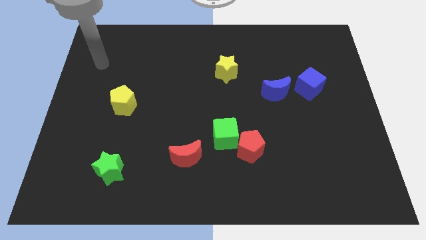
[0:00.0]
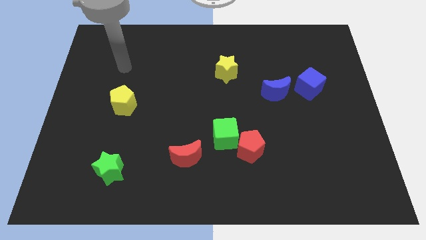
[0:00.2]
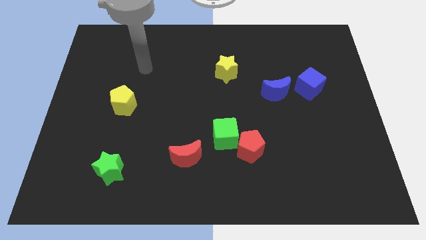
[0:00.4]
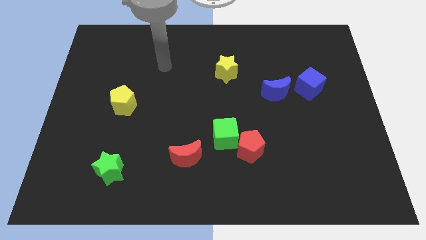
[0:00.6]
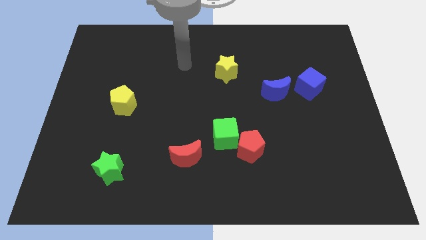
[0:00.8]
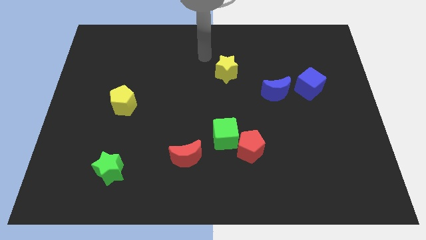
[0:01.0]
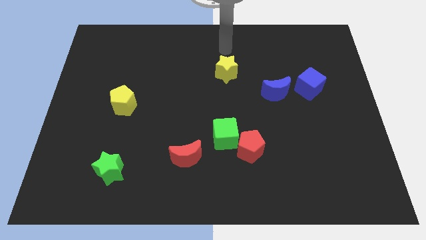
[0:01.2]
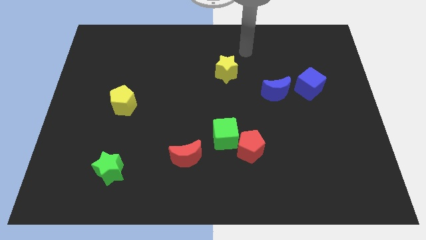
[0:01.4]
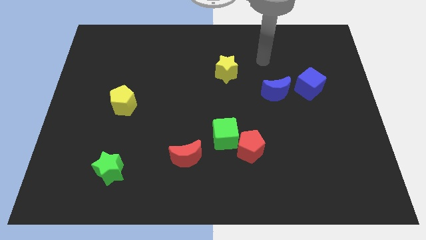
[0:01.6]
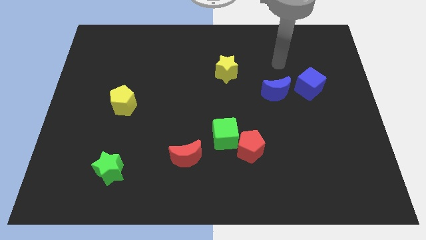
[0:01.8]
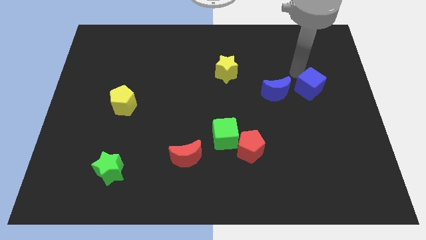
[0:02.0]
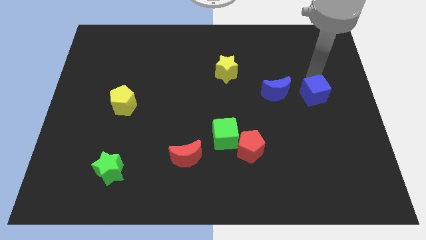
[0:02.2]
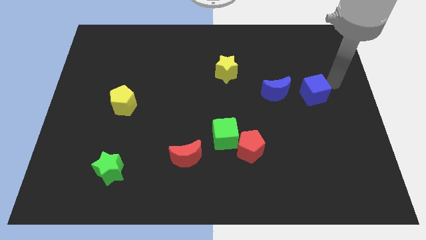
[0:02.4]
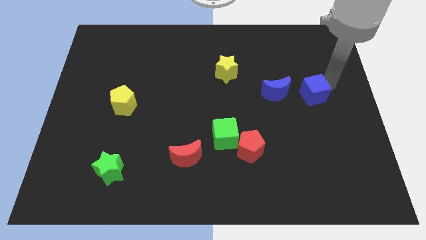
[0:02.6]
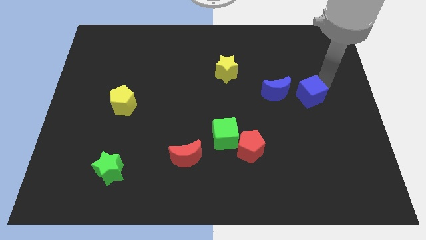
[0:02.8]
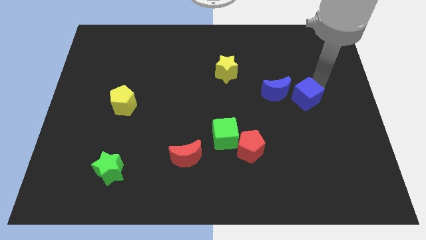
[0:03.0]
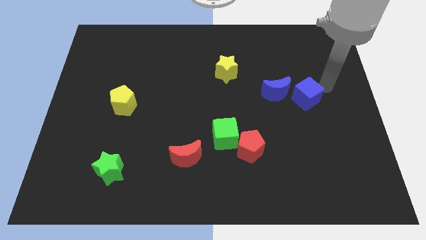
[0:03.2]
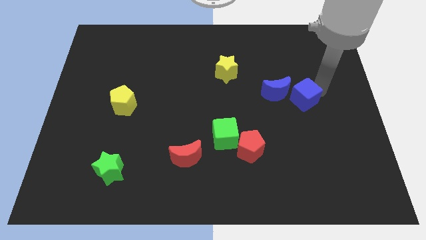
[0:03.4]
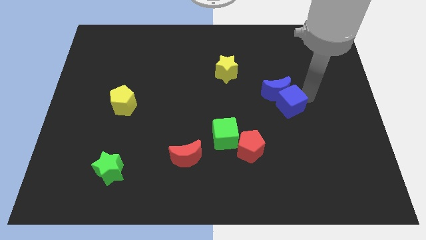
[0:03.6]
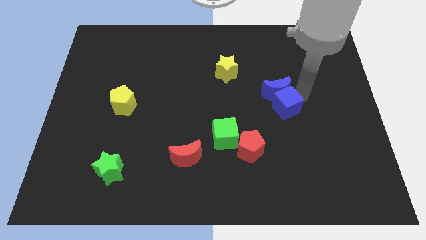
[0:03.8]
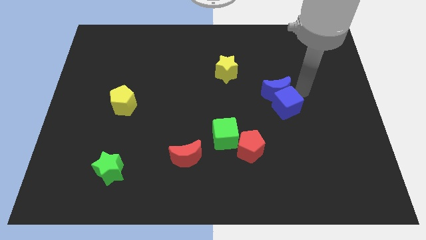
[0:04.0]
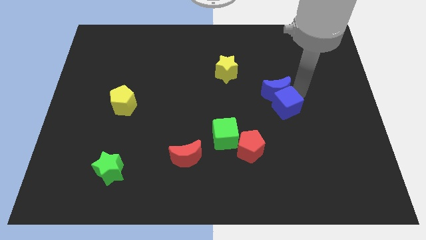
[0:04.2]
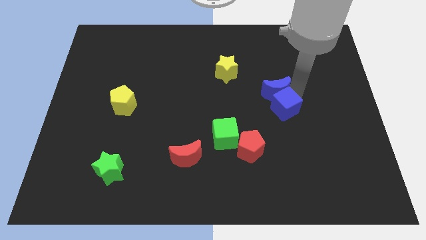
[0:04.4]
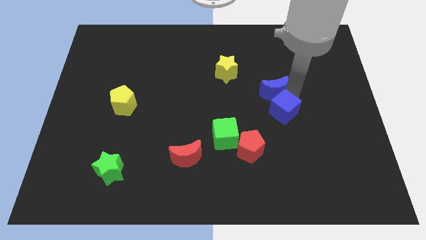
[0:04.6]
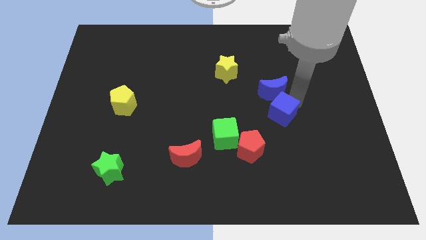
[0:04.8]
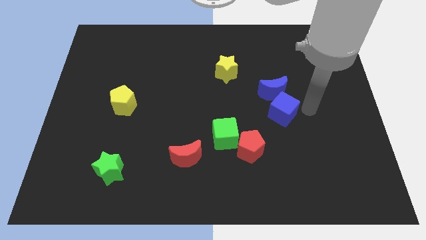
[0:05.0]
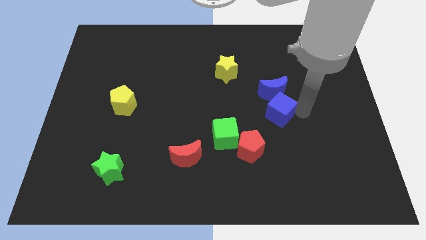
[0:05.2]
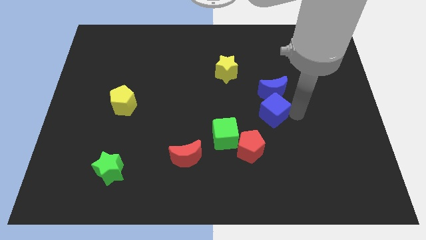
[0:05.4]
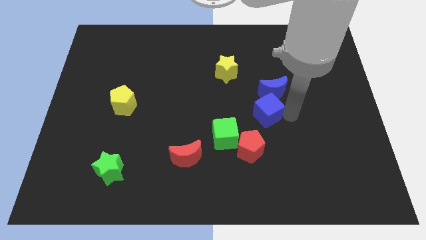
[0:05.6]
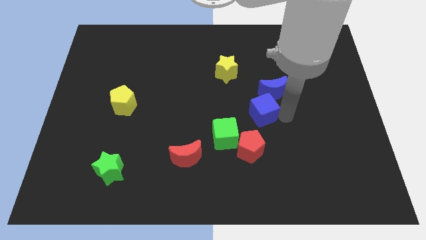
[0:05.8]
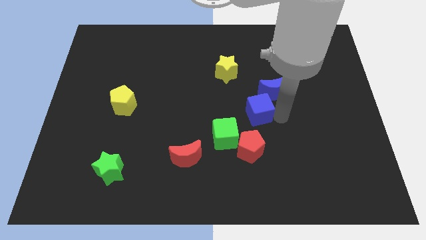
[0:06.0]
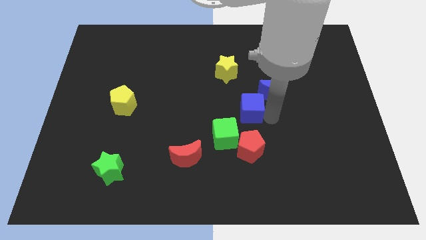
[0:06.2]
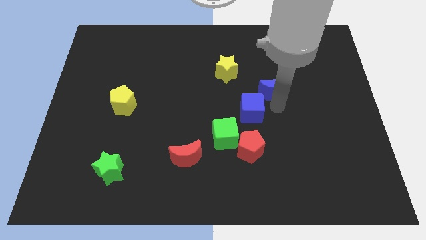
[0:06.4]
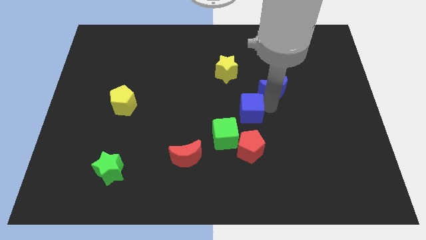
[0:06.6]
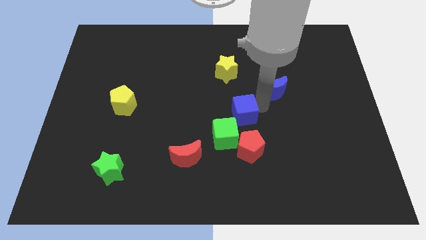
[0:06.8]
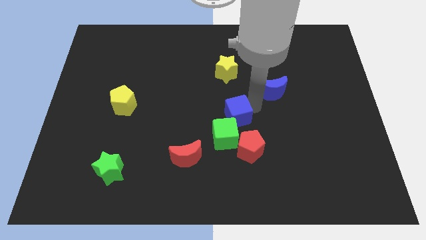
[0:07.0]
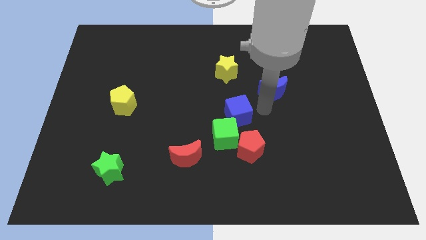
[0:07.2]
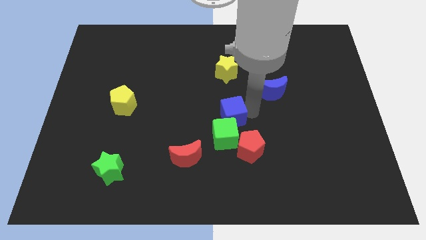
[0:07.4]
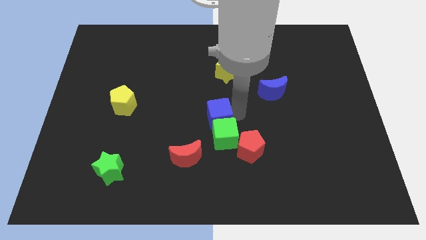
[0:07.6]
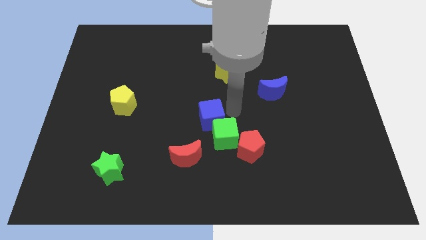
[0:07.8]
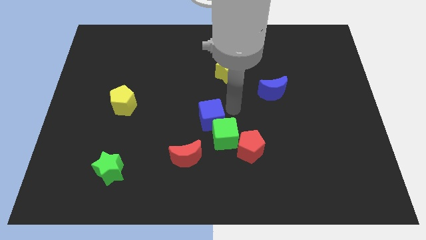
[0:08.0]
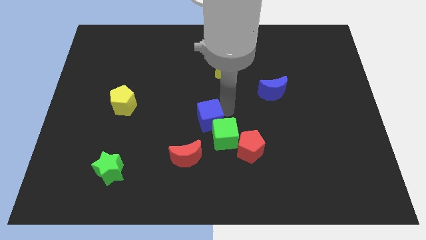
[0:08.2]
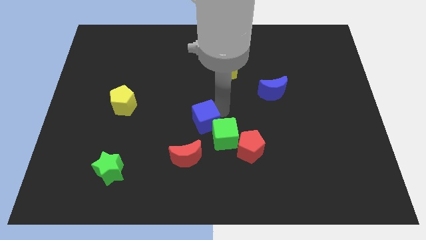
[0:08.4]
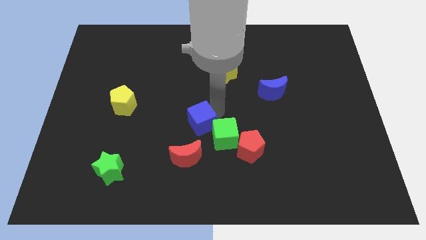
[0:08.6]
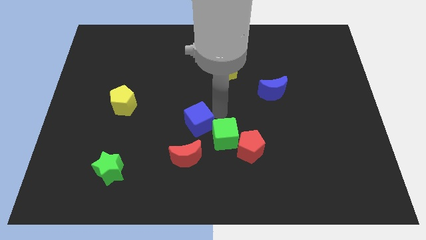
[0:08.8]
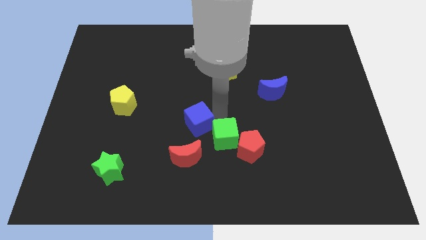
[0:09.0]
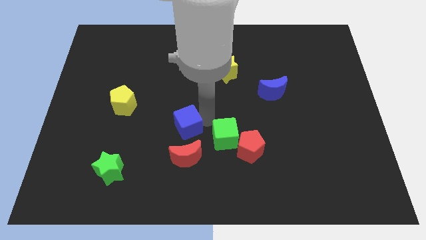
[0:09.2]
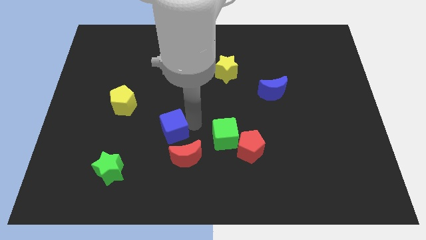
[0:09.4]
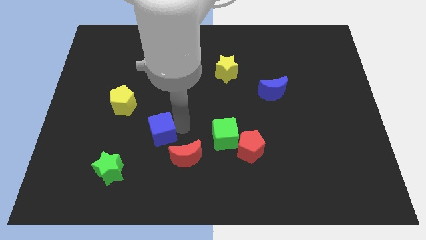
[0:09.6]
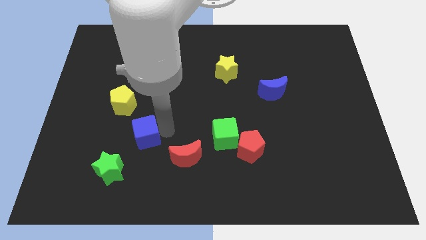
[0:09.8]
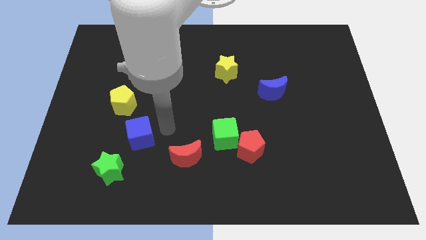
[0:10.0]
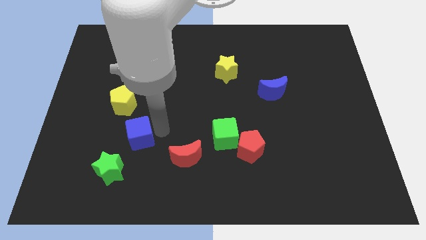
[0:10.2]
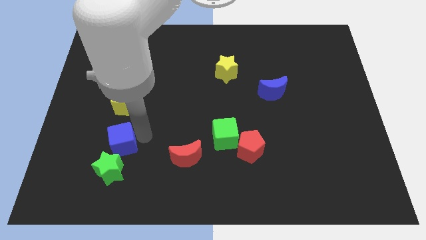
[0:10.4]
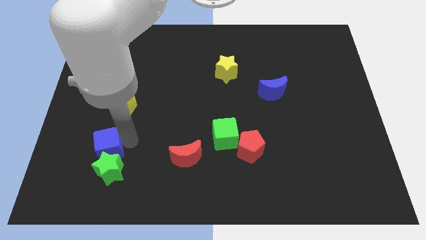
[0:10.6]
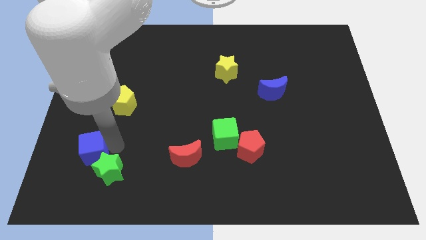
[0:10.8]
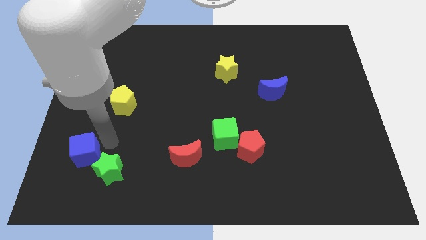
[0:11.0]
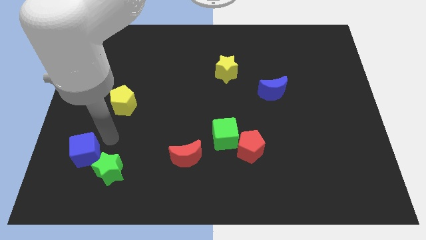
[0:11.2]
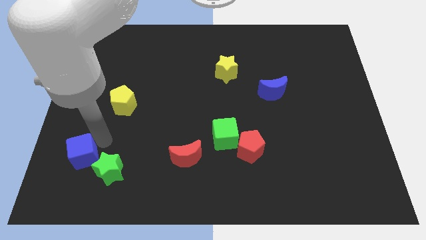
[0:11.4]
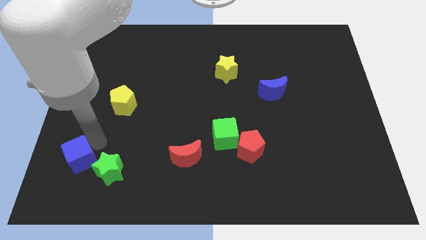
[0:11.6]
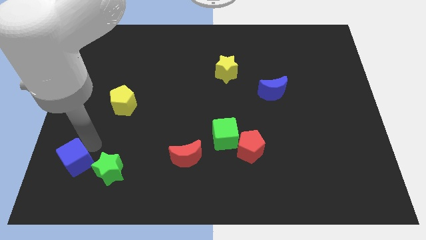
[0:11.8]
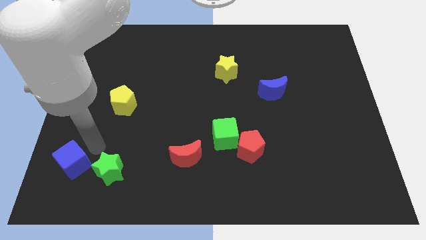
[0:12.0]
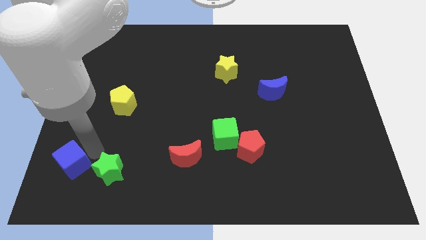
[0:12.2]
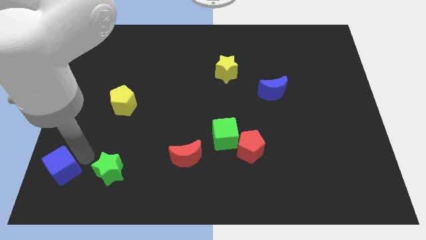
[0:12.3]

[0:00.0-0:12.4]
push the blue cube to the bottom left corner
